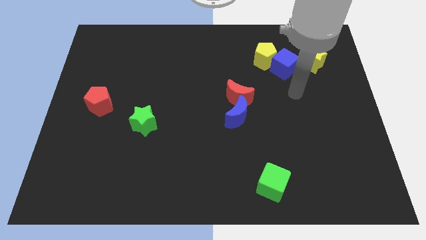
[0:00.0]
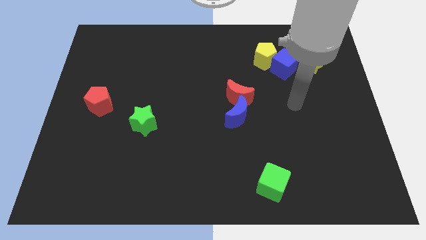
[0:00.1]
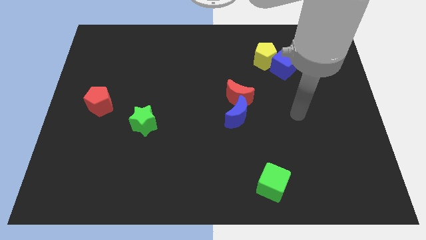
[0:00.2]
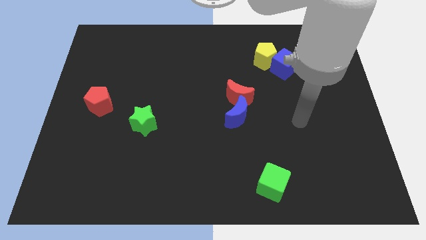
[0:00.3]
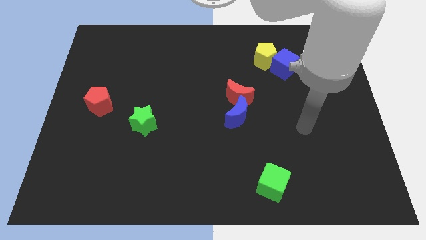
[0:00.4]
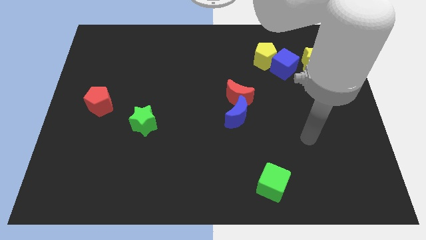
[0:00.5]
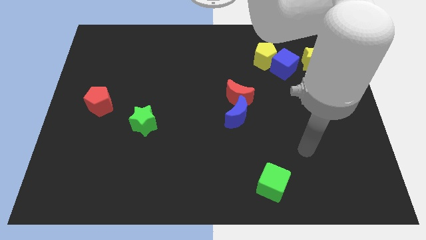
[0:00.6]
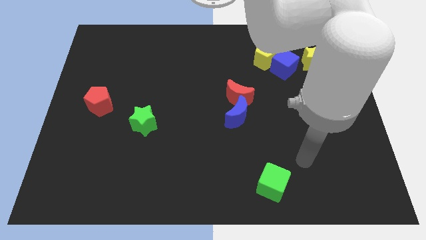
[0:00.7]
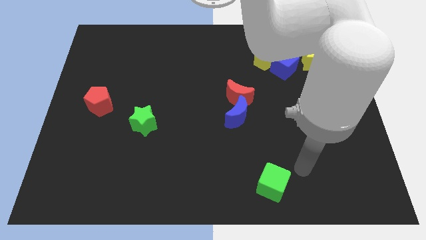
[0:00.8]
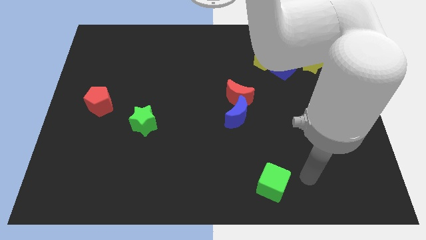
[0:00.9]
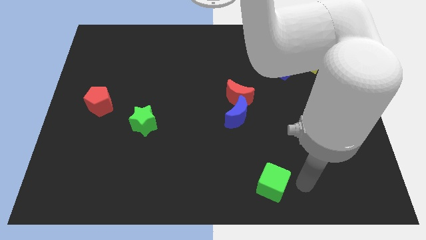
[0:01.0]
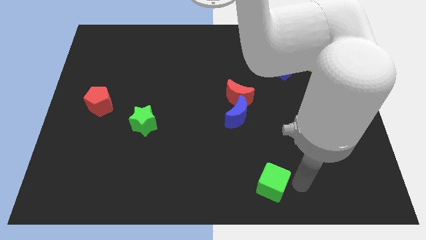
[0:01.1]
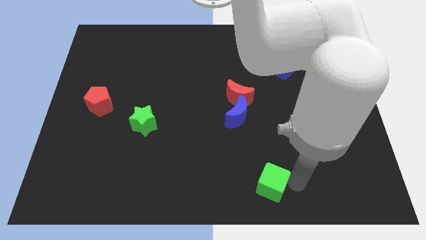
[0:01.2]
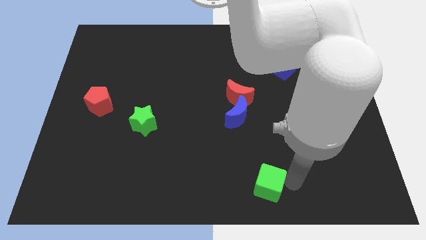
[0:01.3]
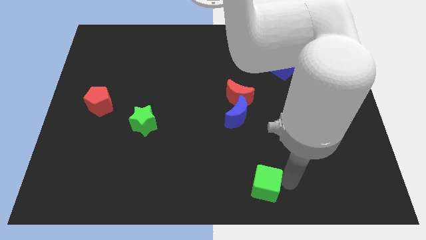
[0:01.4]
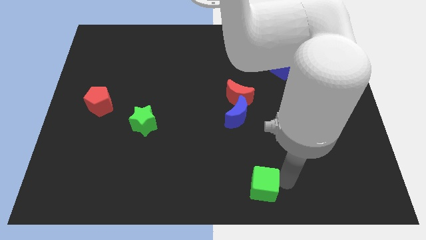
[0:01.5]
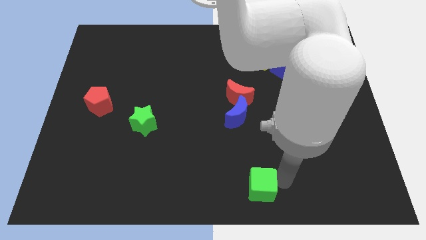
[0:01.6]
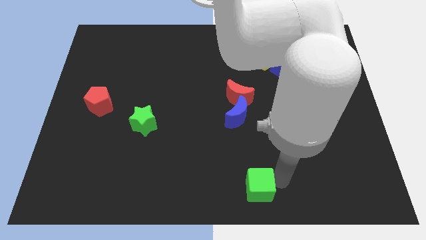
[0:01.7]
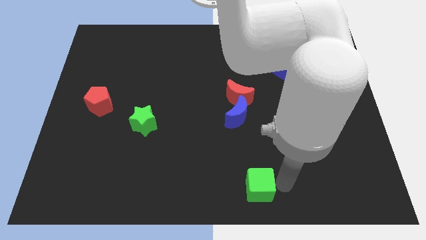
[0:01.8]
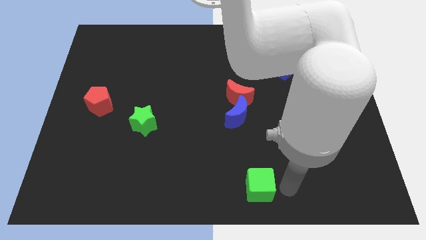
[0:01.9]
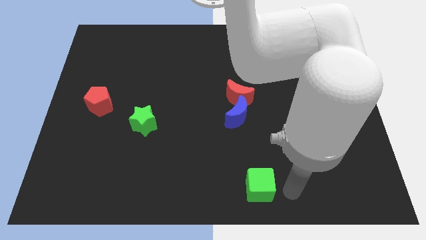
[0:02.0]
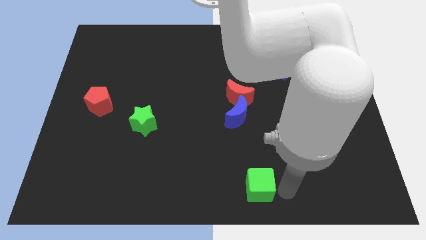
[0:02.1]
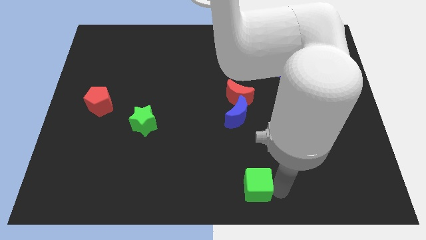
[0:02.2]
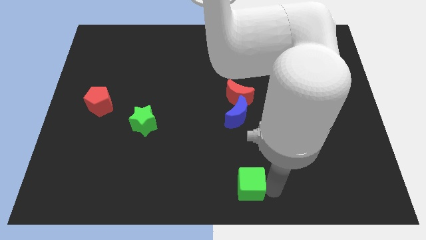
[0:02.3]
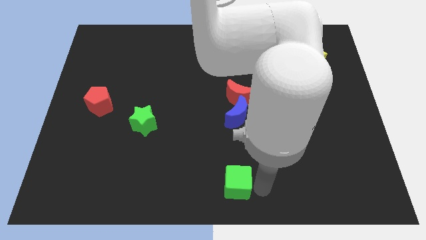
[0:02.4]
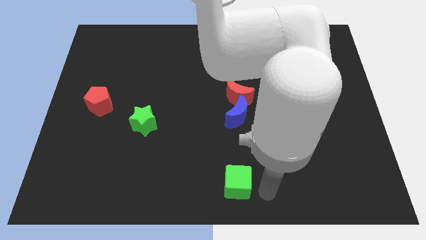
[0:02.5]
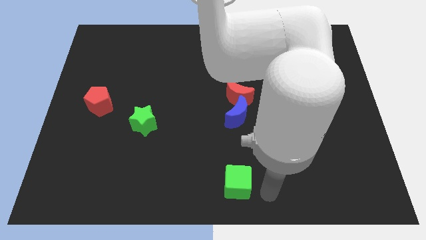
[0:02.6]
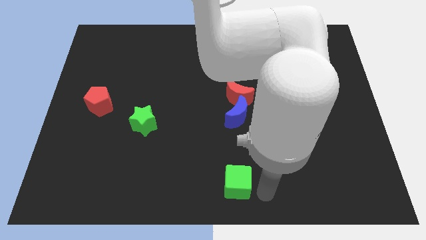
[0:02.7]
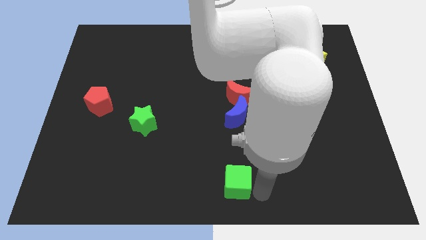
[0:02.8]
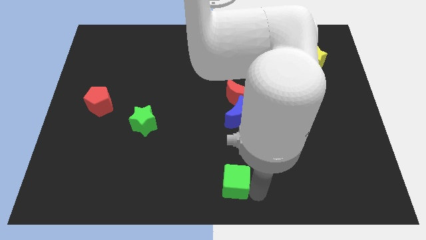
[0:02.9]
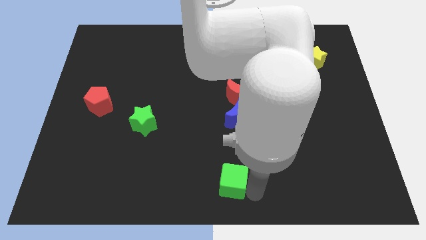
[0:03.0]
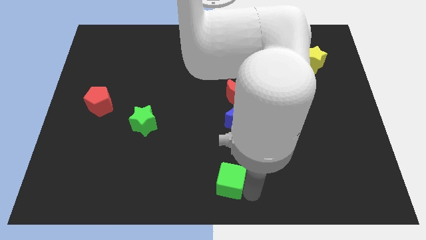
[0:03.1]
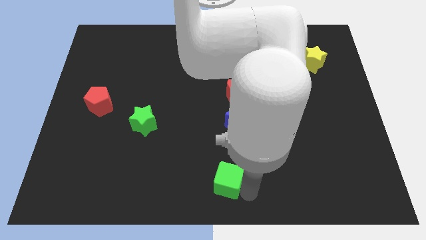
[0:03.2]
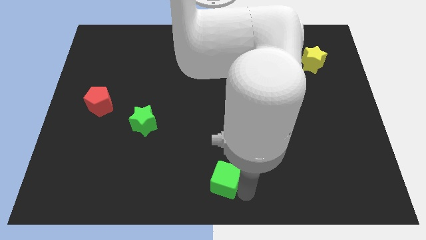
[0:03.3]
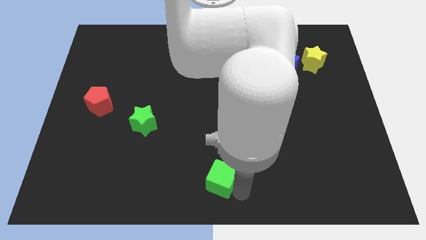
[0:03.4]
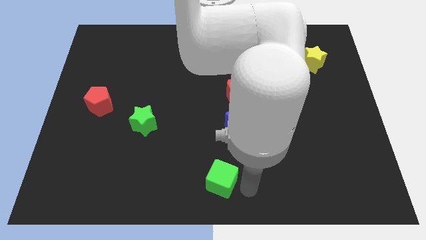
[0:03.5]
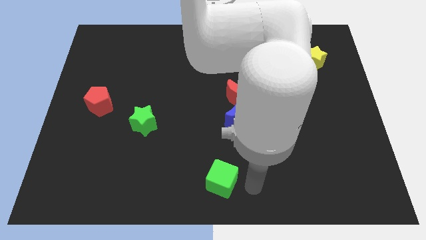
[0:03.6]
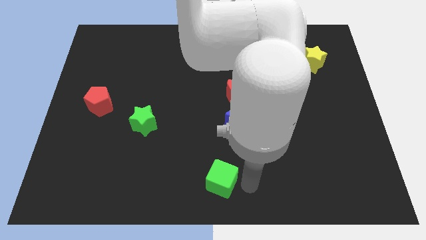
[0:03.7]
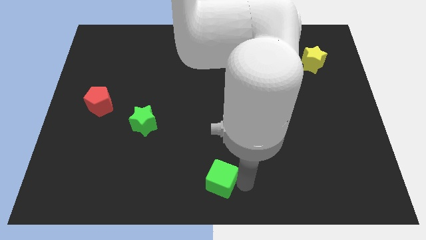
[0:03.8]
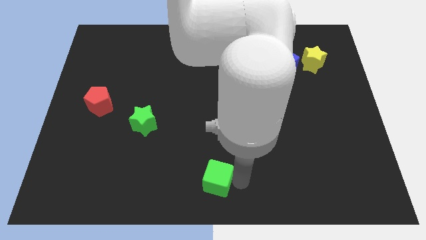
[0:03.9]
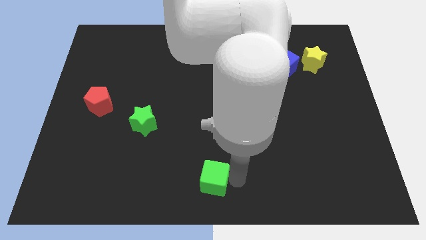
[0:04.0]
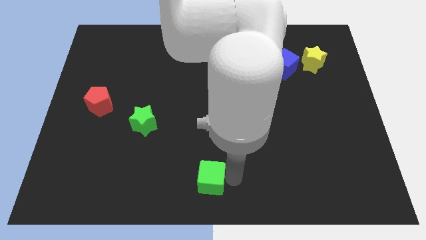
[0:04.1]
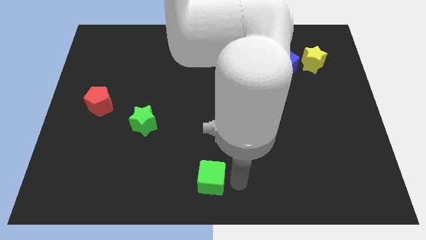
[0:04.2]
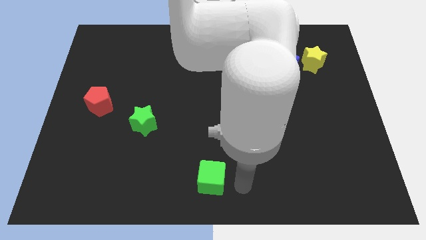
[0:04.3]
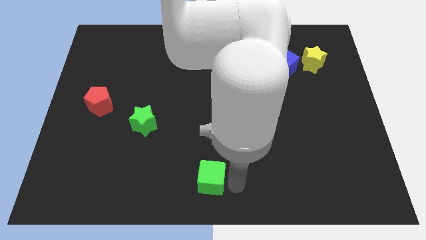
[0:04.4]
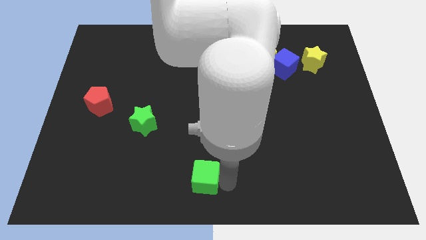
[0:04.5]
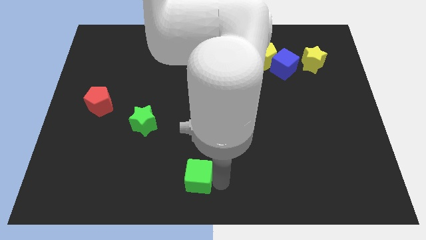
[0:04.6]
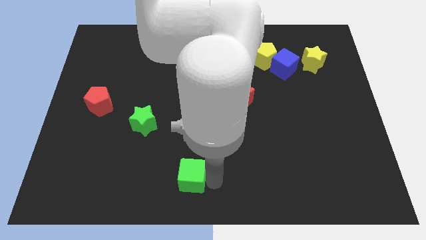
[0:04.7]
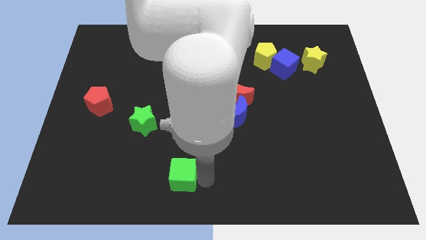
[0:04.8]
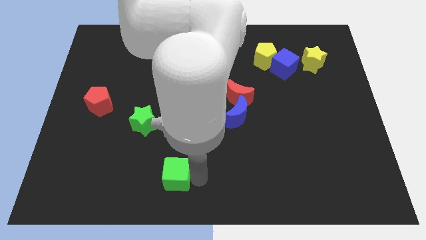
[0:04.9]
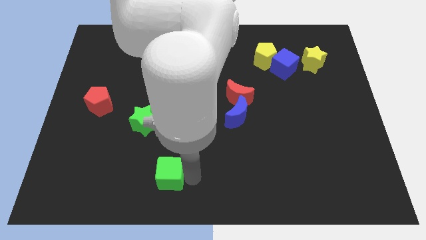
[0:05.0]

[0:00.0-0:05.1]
slide the green cube left

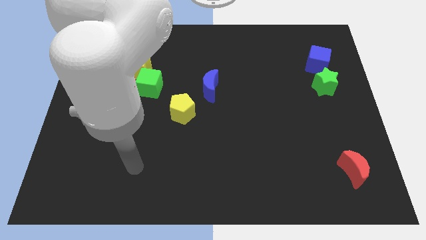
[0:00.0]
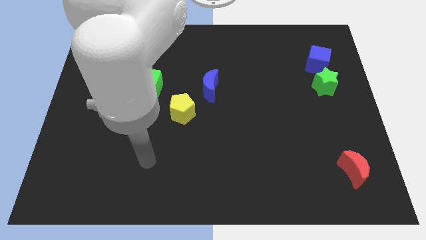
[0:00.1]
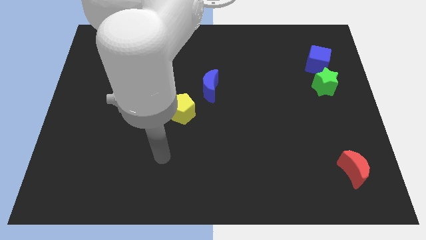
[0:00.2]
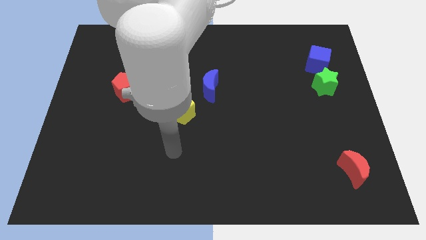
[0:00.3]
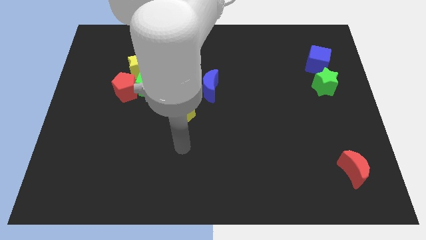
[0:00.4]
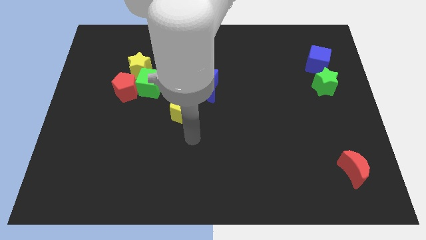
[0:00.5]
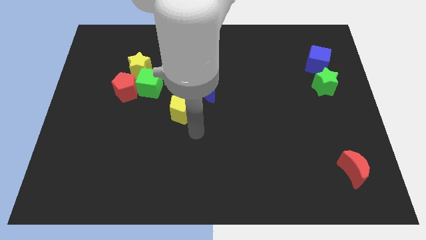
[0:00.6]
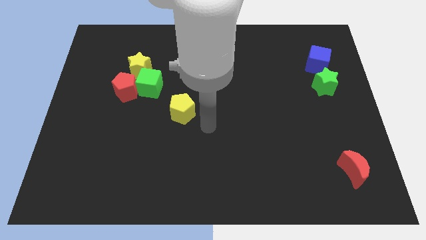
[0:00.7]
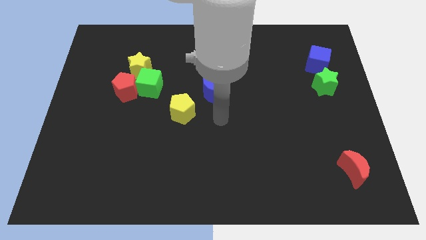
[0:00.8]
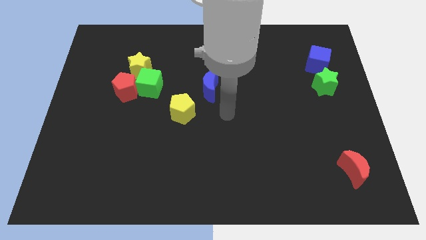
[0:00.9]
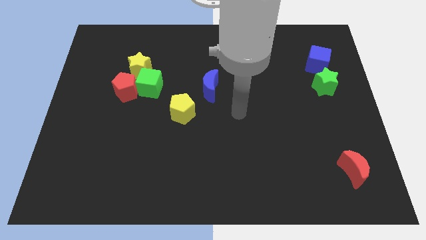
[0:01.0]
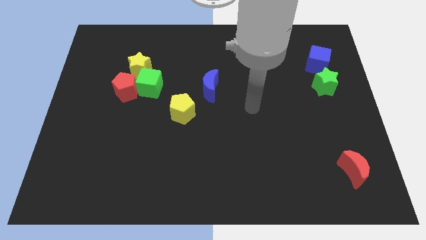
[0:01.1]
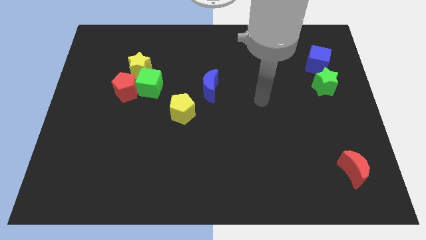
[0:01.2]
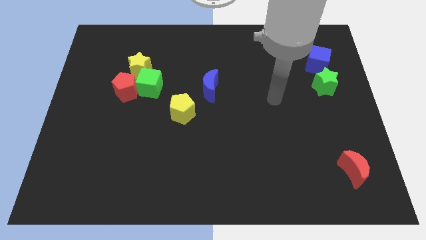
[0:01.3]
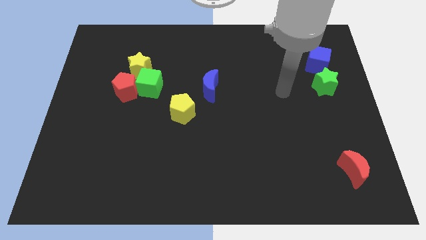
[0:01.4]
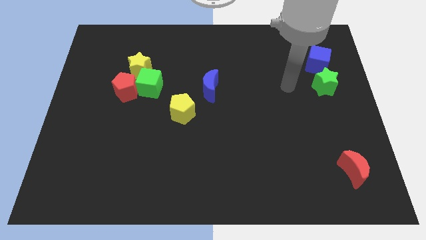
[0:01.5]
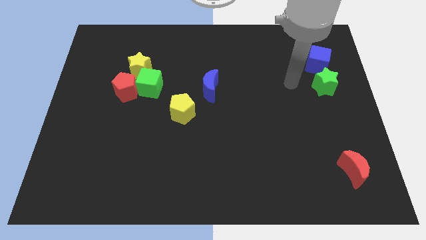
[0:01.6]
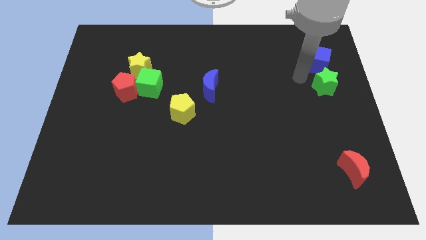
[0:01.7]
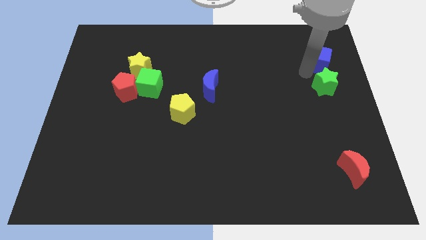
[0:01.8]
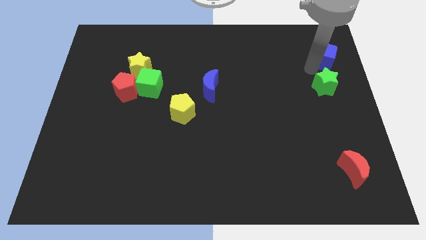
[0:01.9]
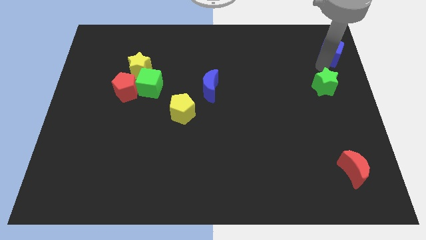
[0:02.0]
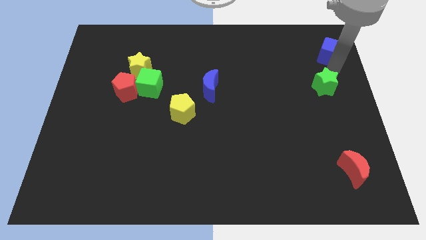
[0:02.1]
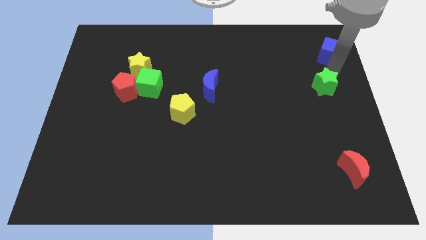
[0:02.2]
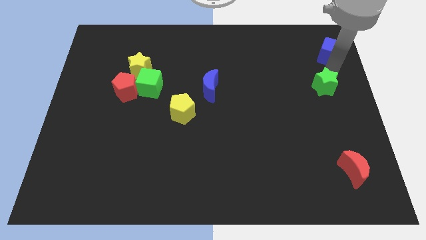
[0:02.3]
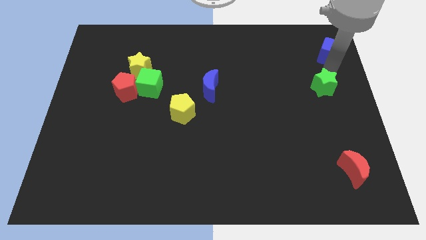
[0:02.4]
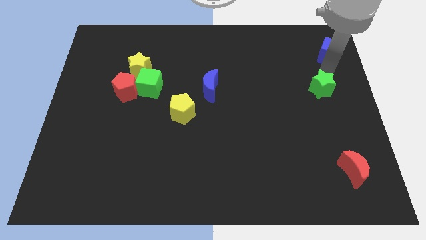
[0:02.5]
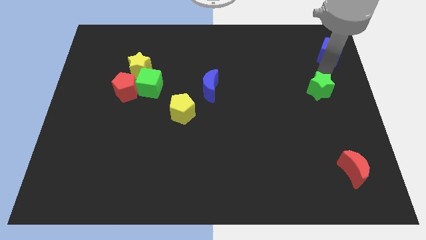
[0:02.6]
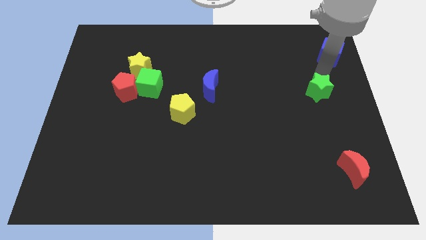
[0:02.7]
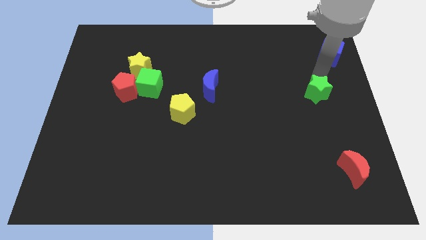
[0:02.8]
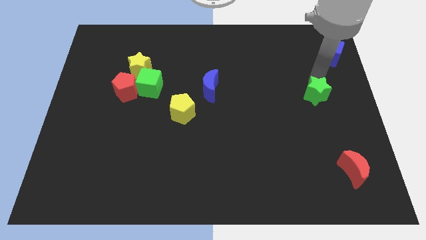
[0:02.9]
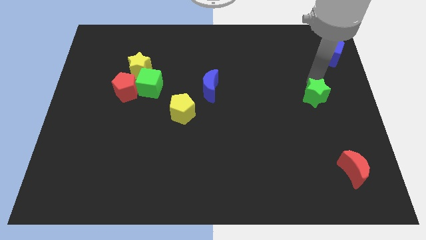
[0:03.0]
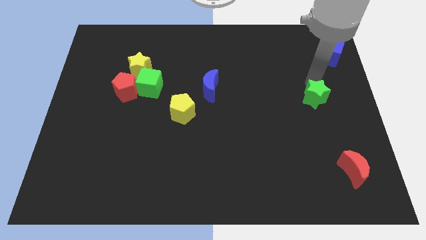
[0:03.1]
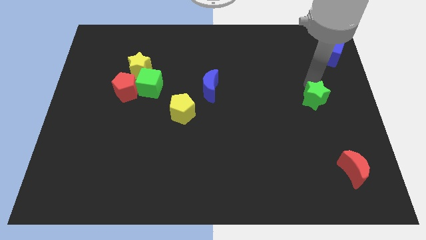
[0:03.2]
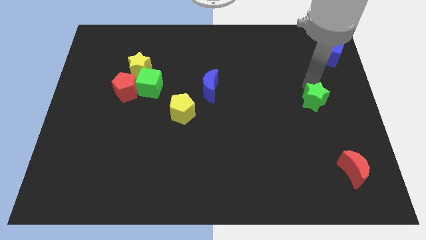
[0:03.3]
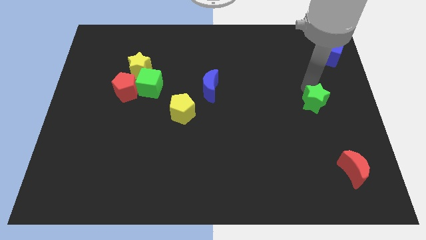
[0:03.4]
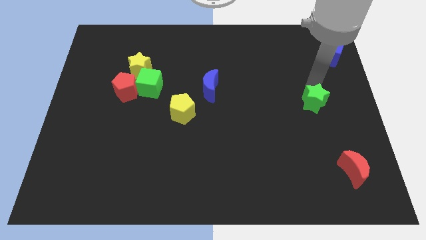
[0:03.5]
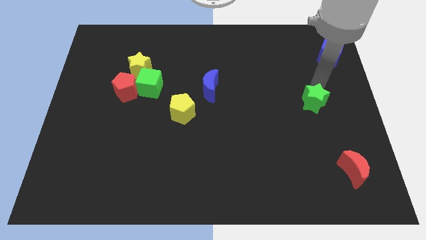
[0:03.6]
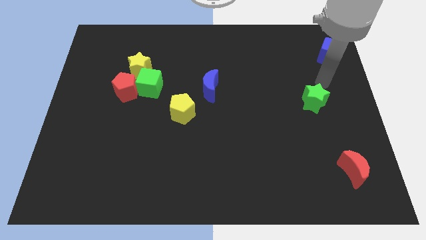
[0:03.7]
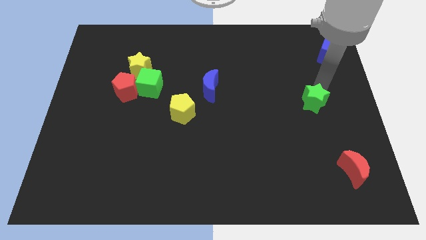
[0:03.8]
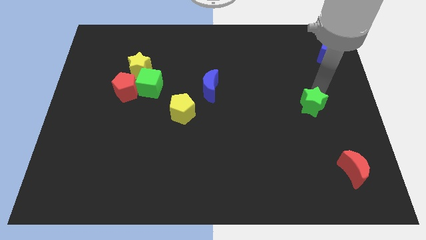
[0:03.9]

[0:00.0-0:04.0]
slightly push the green star downwards and to the left diagonally
